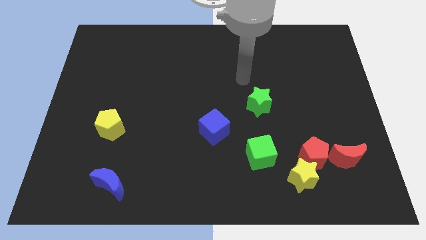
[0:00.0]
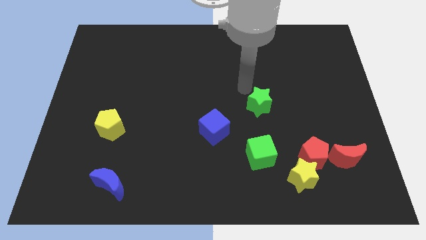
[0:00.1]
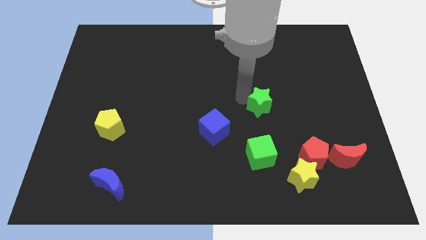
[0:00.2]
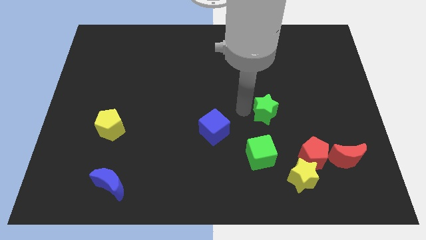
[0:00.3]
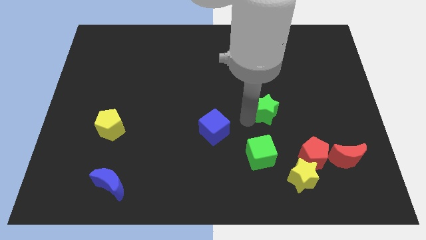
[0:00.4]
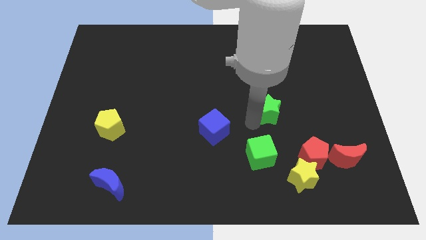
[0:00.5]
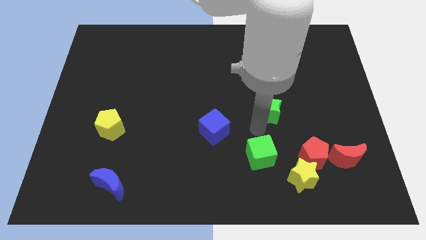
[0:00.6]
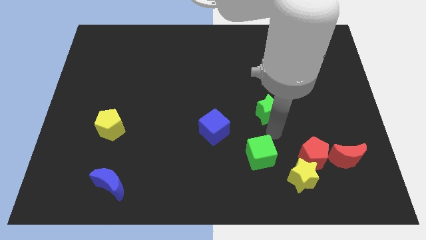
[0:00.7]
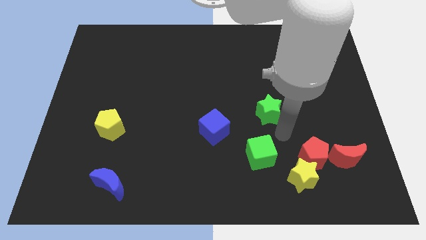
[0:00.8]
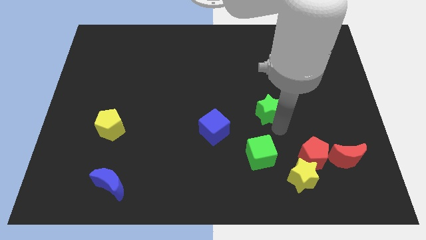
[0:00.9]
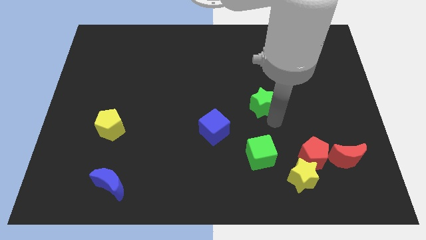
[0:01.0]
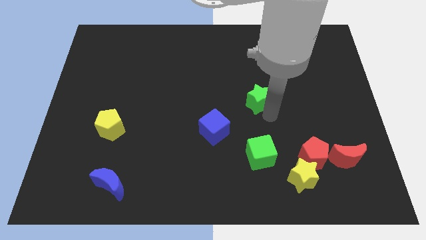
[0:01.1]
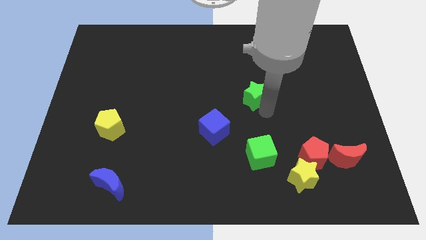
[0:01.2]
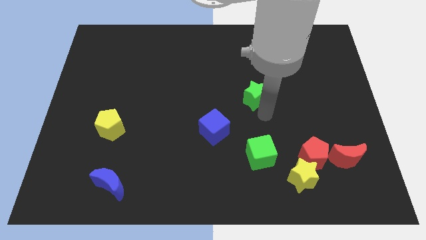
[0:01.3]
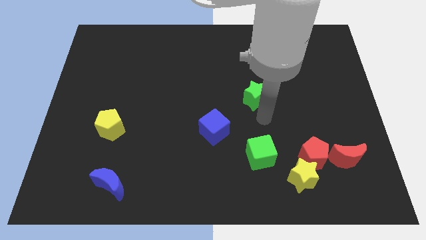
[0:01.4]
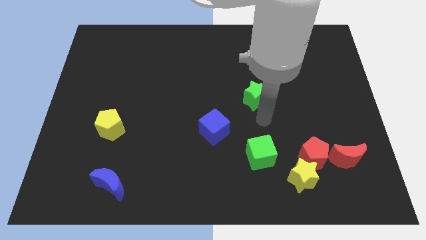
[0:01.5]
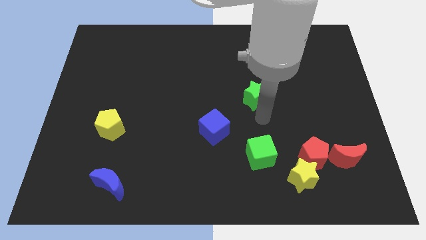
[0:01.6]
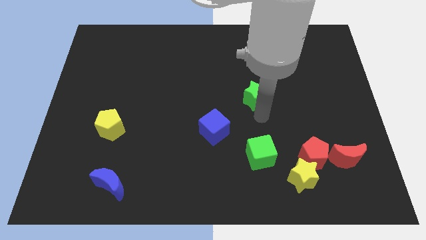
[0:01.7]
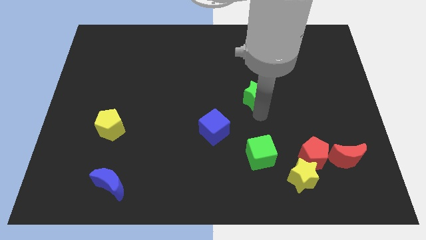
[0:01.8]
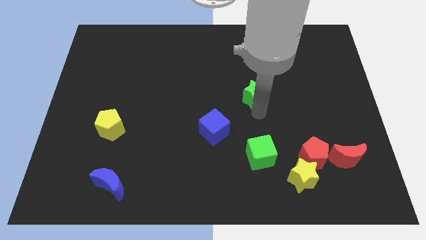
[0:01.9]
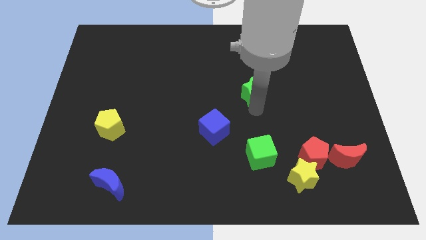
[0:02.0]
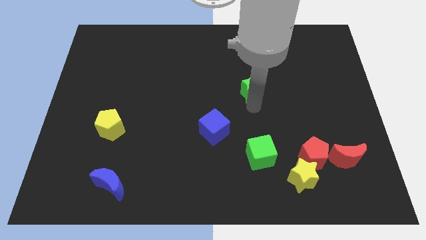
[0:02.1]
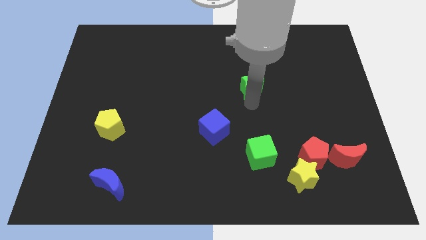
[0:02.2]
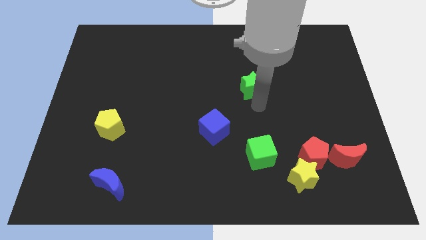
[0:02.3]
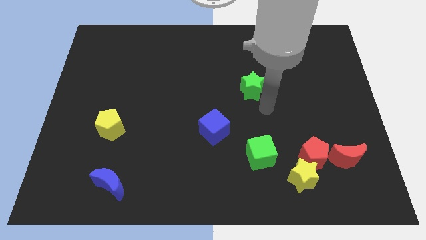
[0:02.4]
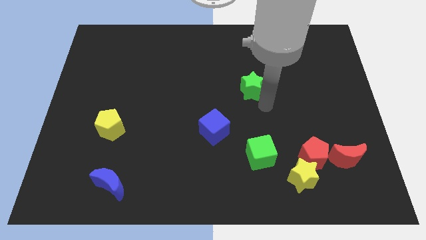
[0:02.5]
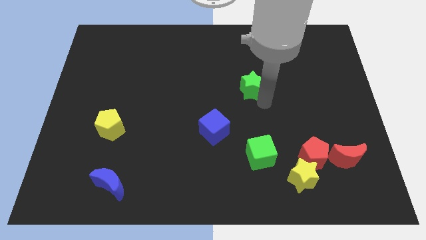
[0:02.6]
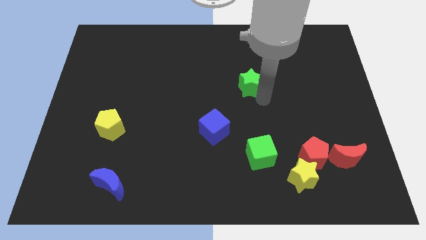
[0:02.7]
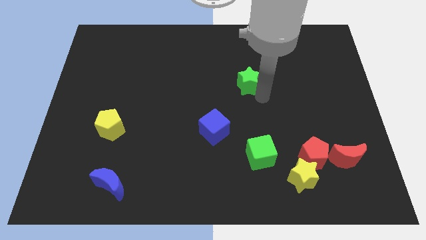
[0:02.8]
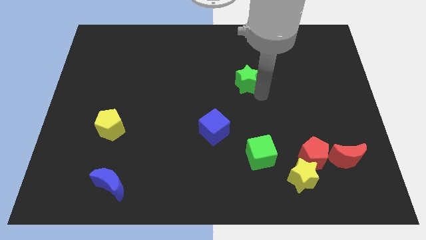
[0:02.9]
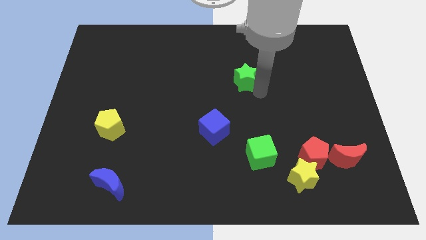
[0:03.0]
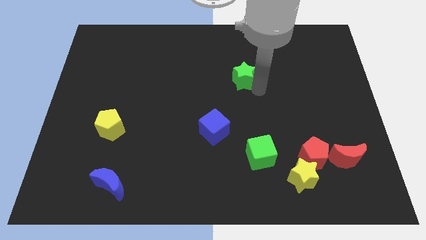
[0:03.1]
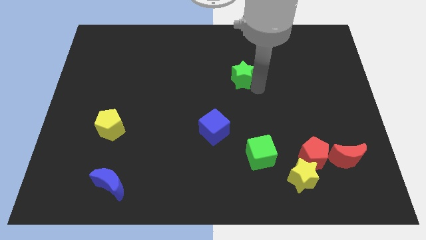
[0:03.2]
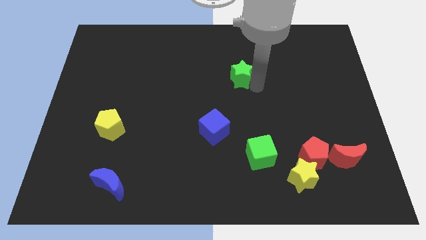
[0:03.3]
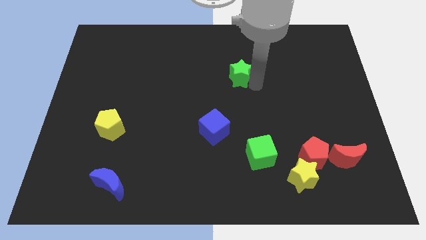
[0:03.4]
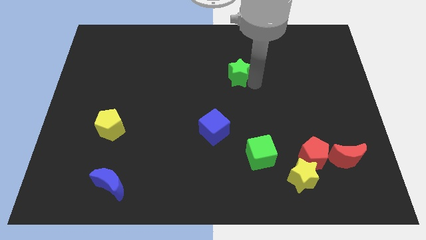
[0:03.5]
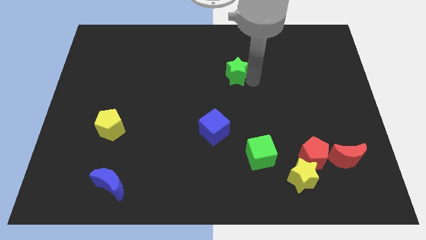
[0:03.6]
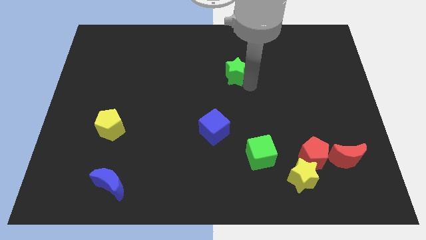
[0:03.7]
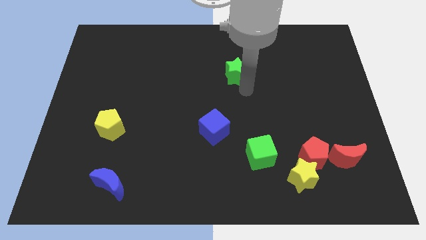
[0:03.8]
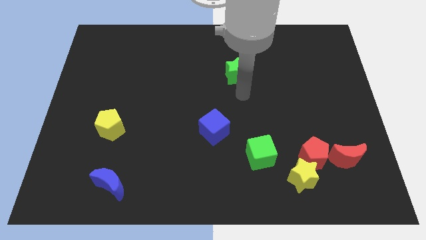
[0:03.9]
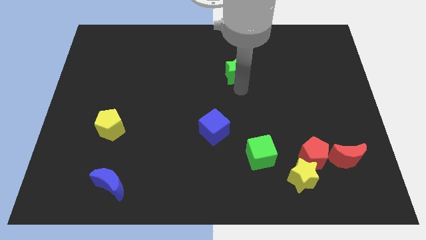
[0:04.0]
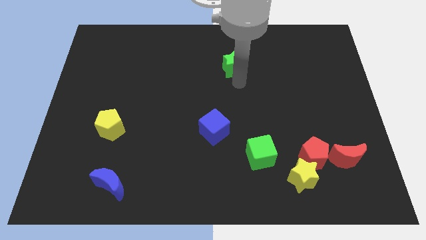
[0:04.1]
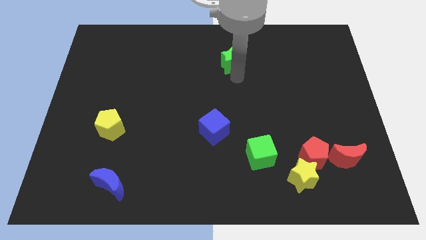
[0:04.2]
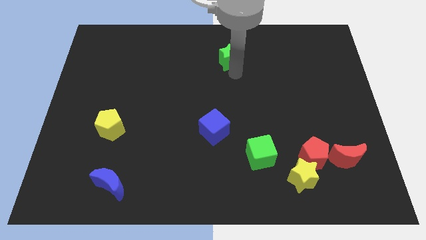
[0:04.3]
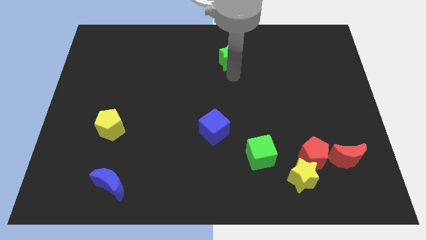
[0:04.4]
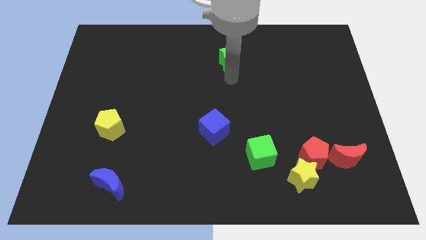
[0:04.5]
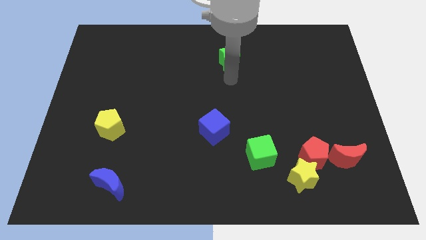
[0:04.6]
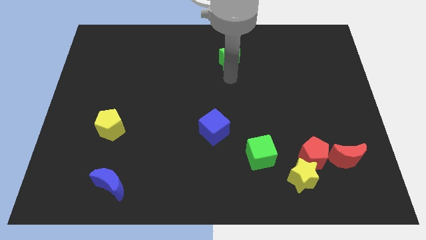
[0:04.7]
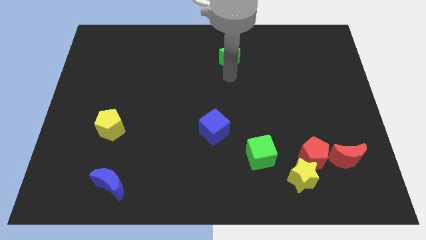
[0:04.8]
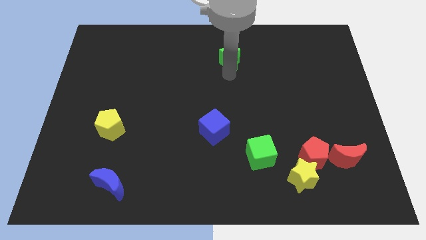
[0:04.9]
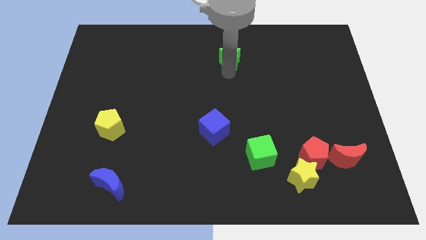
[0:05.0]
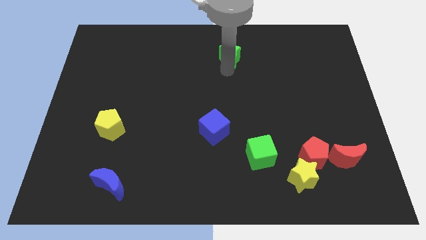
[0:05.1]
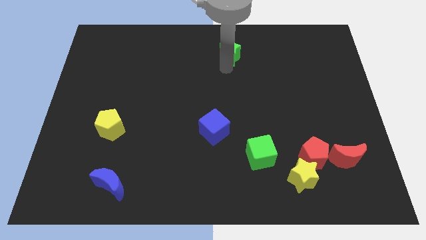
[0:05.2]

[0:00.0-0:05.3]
move the green star to the top

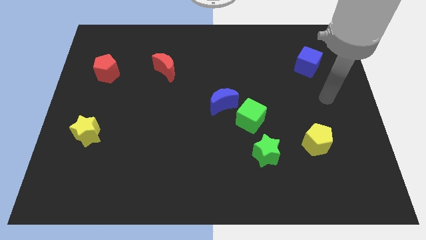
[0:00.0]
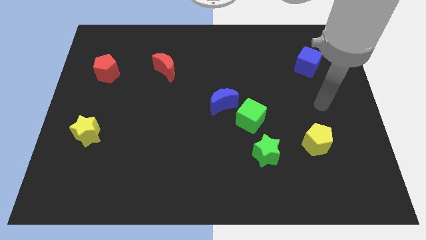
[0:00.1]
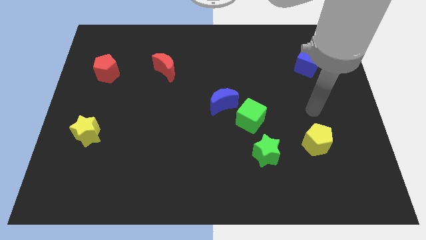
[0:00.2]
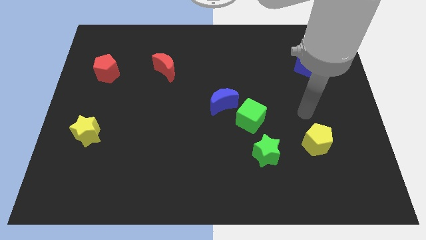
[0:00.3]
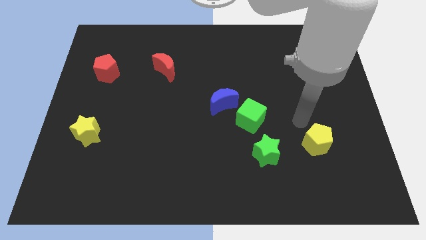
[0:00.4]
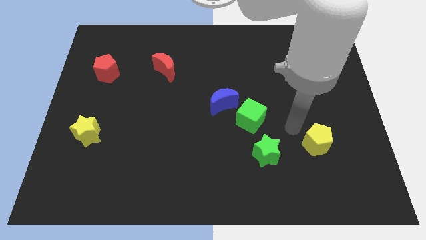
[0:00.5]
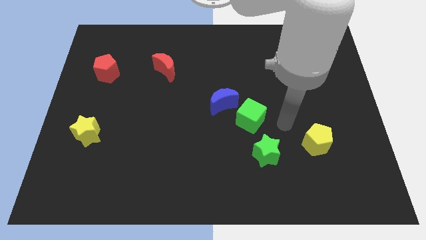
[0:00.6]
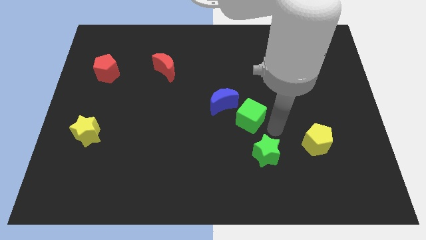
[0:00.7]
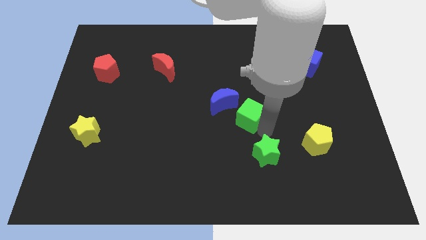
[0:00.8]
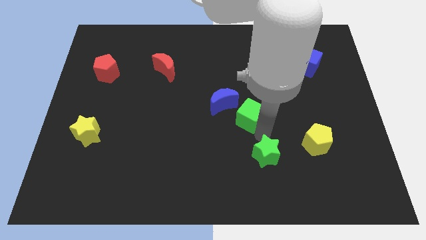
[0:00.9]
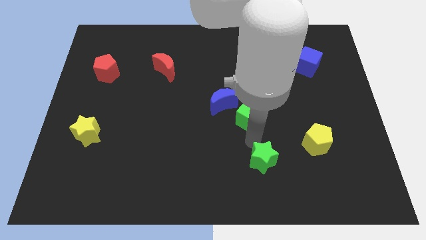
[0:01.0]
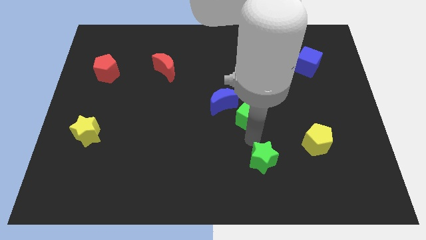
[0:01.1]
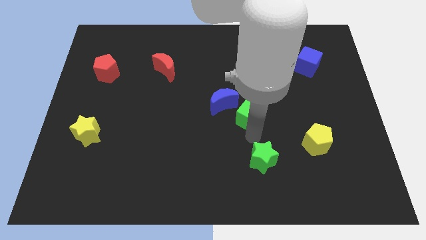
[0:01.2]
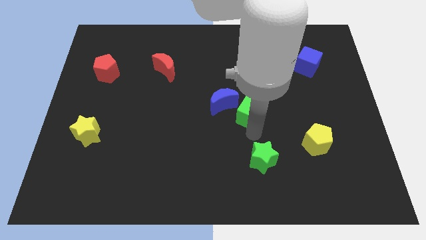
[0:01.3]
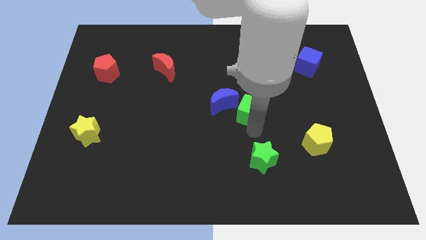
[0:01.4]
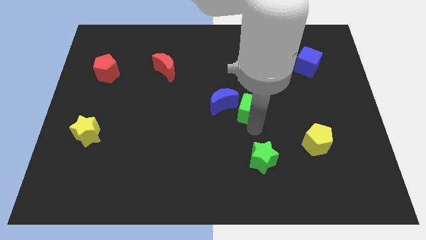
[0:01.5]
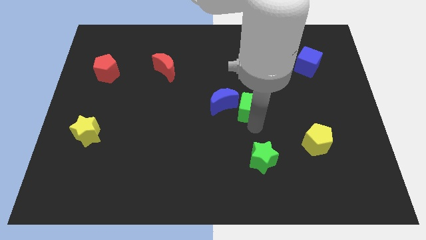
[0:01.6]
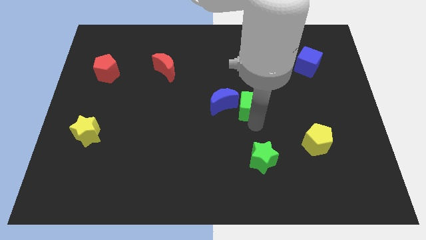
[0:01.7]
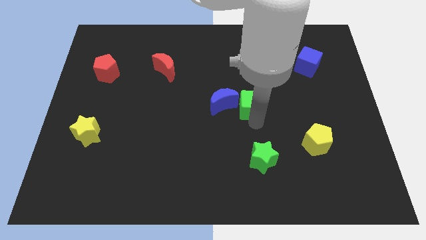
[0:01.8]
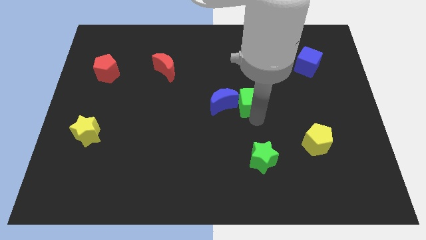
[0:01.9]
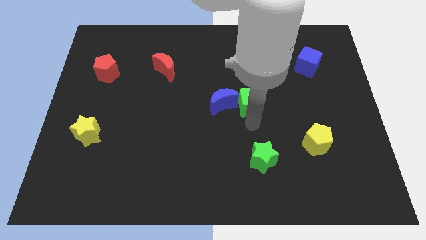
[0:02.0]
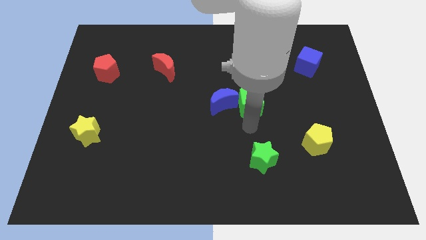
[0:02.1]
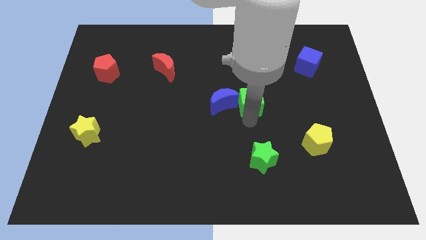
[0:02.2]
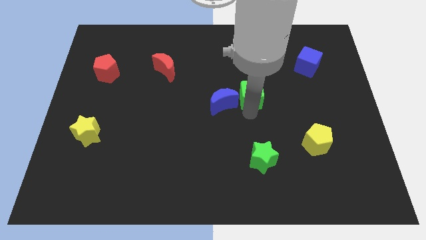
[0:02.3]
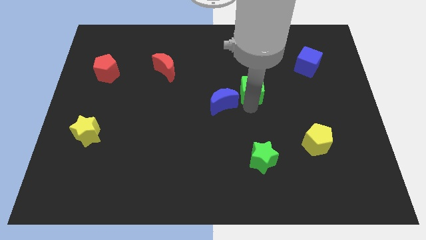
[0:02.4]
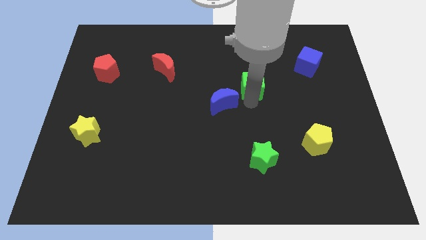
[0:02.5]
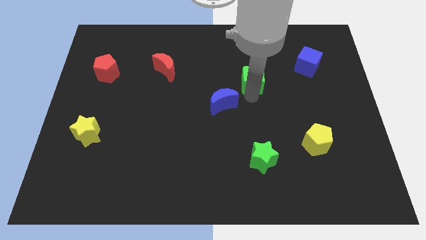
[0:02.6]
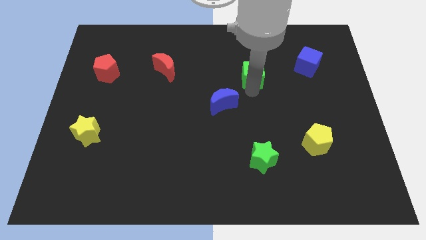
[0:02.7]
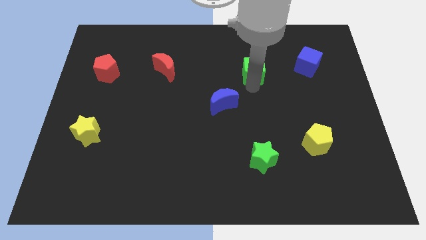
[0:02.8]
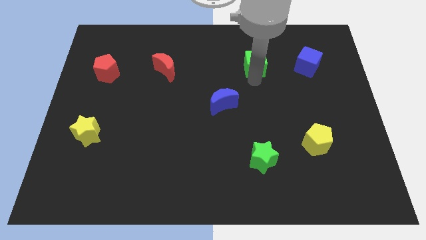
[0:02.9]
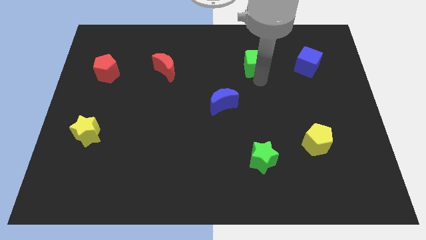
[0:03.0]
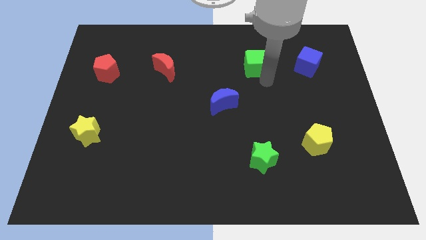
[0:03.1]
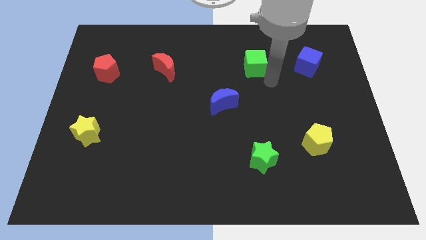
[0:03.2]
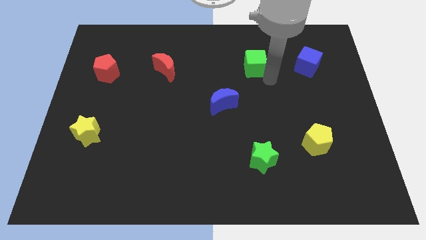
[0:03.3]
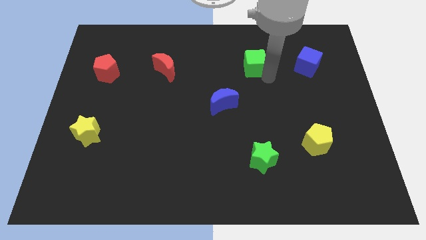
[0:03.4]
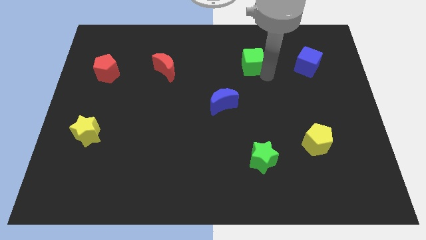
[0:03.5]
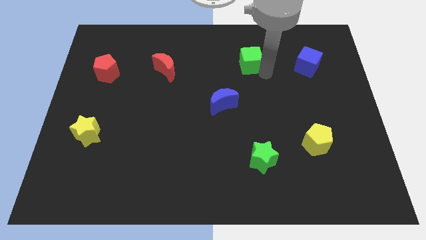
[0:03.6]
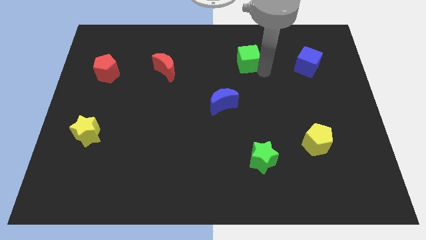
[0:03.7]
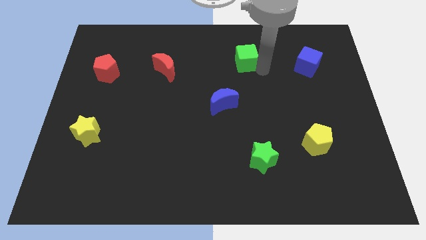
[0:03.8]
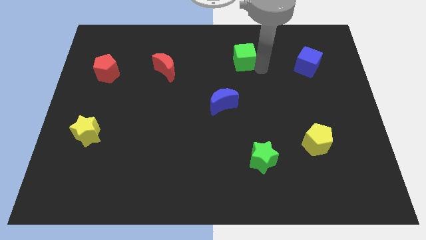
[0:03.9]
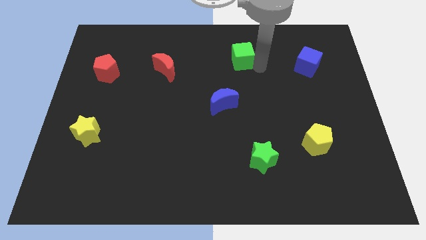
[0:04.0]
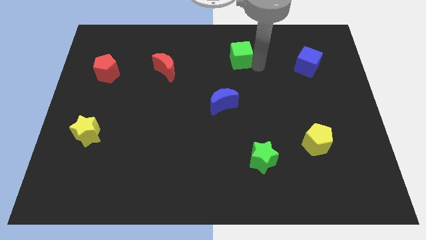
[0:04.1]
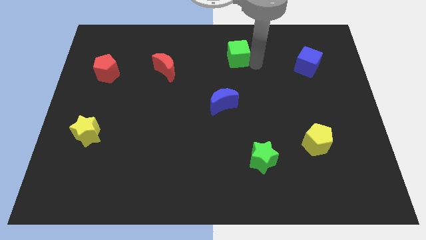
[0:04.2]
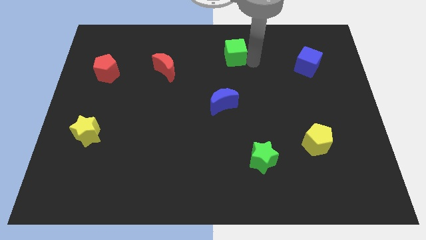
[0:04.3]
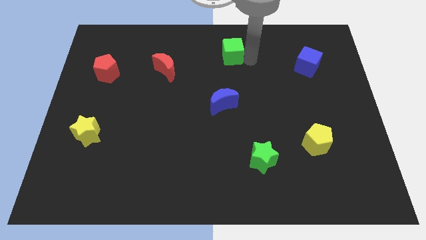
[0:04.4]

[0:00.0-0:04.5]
push the green cube to the top side
